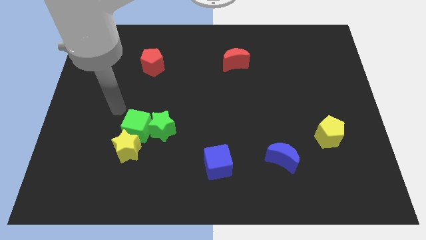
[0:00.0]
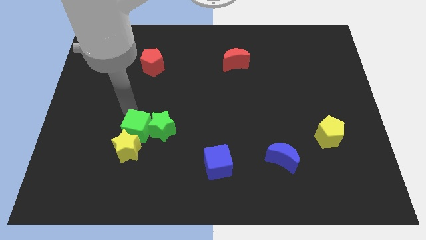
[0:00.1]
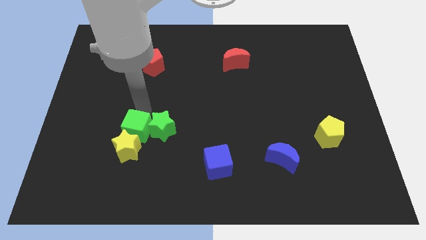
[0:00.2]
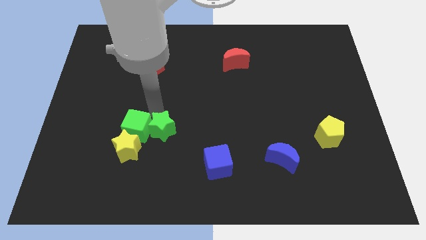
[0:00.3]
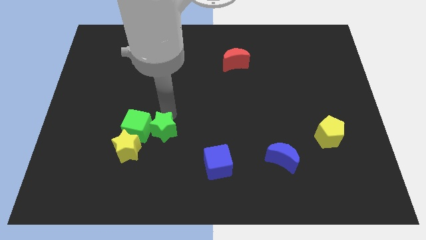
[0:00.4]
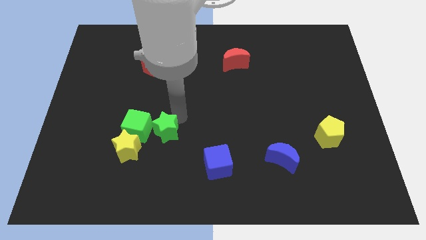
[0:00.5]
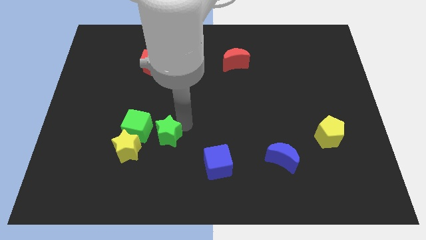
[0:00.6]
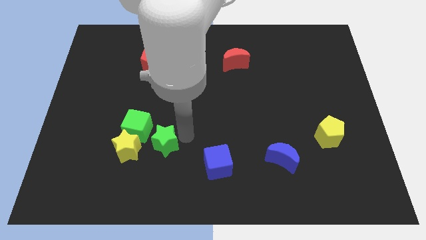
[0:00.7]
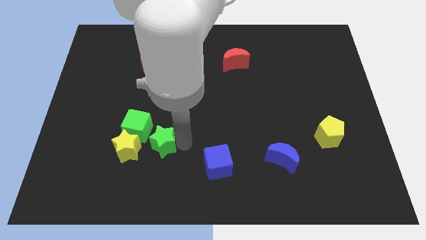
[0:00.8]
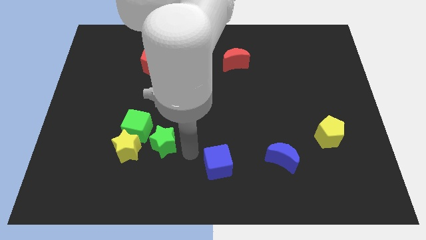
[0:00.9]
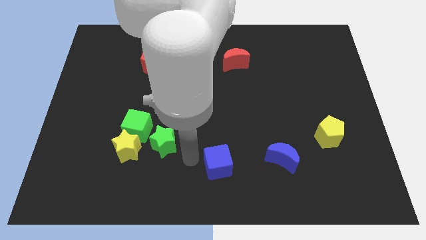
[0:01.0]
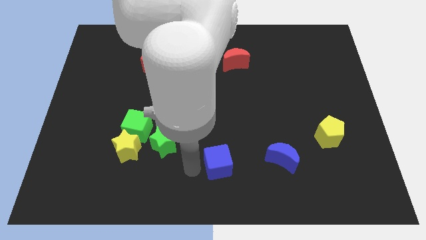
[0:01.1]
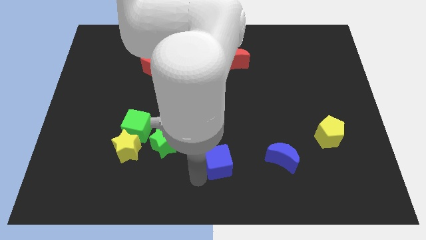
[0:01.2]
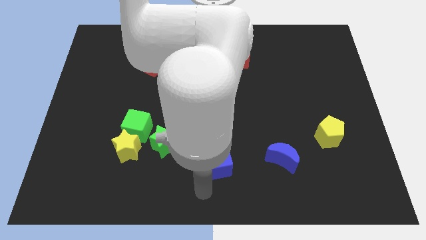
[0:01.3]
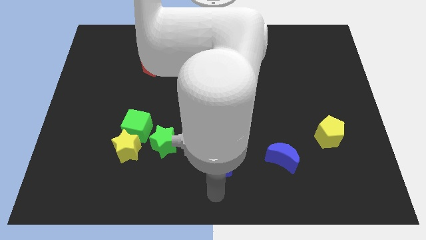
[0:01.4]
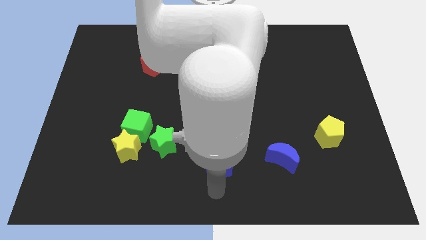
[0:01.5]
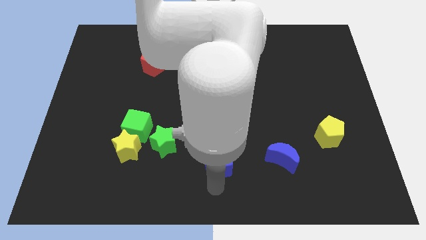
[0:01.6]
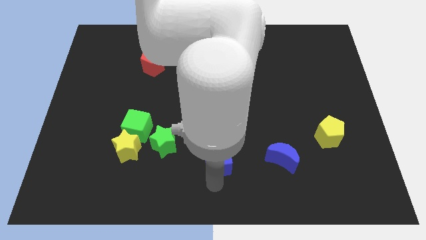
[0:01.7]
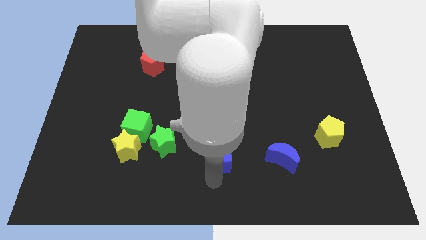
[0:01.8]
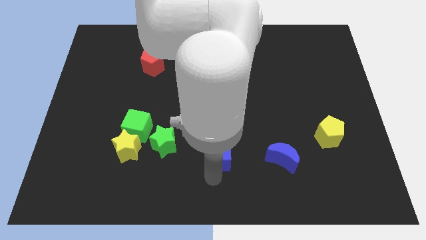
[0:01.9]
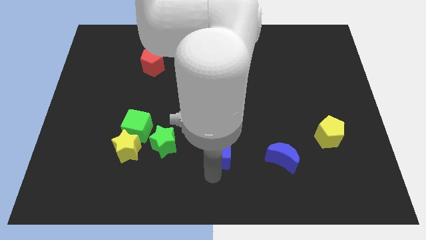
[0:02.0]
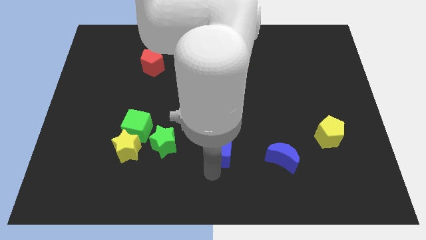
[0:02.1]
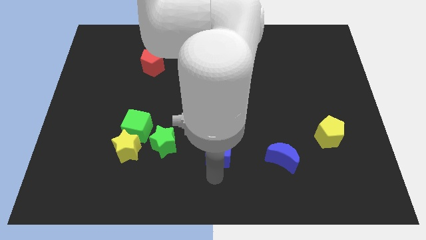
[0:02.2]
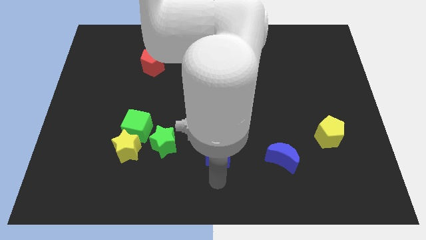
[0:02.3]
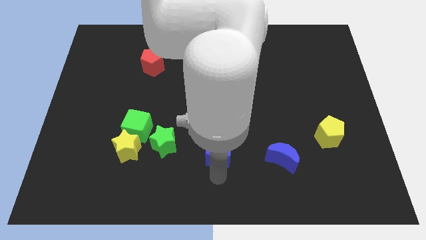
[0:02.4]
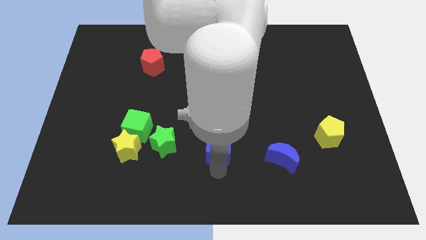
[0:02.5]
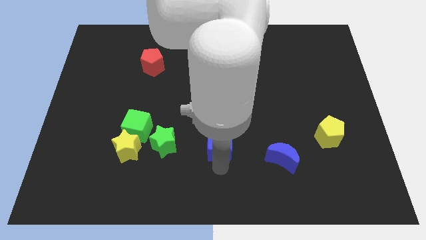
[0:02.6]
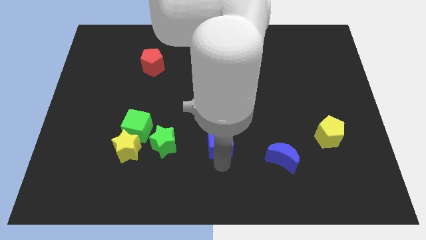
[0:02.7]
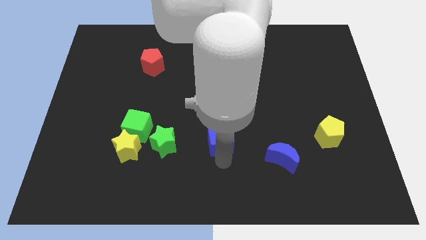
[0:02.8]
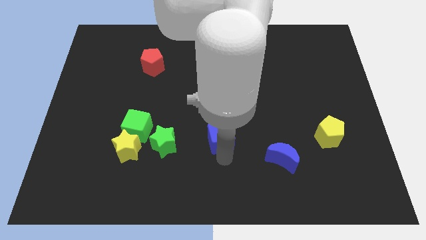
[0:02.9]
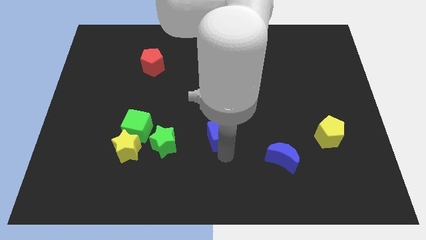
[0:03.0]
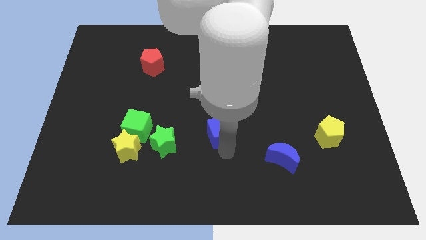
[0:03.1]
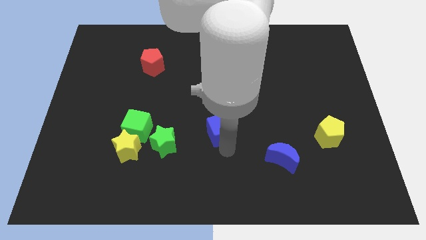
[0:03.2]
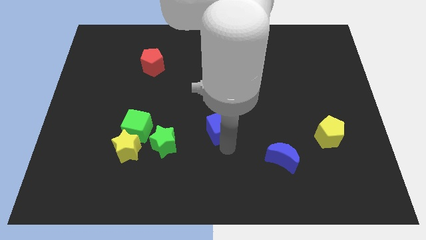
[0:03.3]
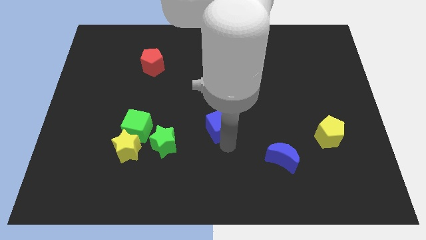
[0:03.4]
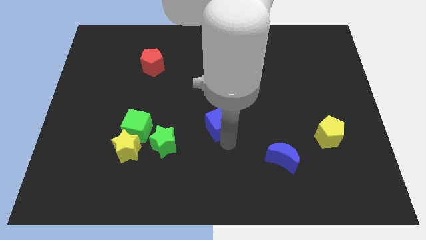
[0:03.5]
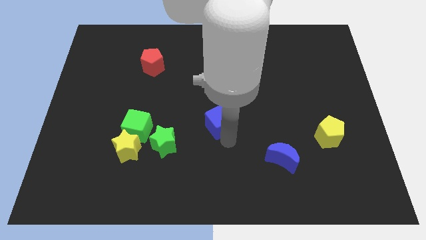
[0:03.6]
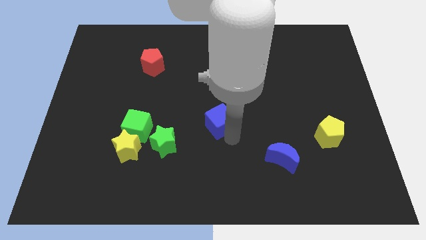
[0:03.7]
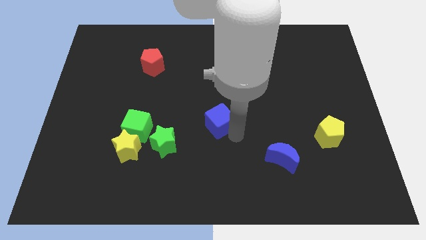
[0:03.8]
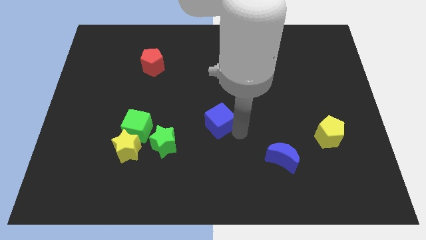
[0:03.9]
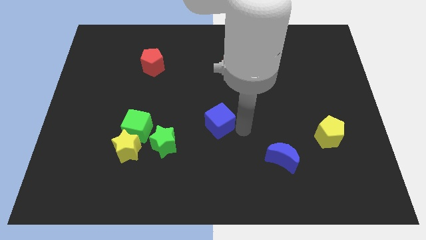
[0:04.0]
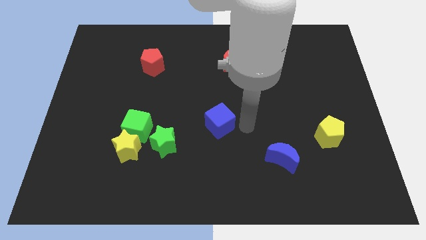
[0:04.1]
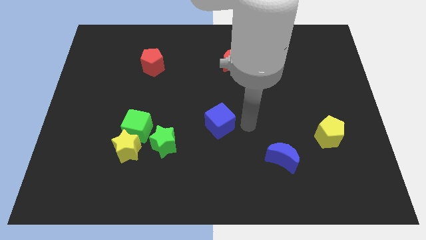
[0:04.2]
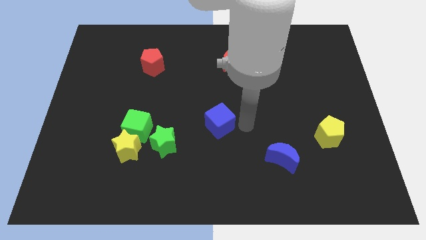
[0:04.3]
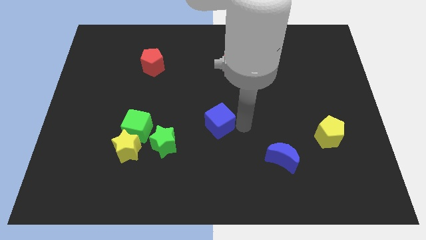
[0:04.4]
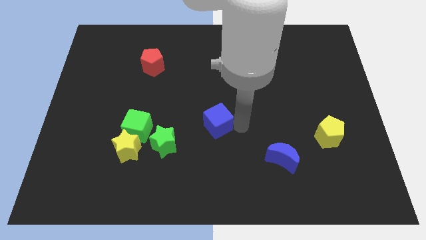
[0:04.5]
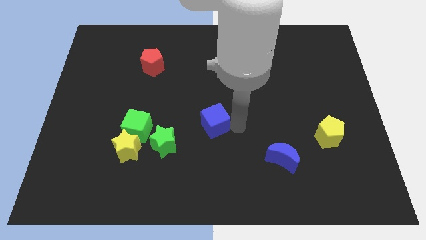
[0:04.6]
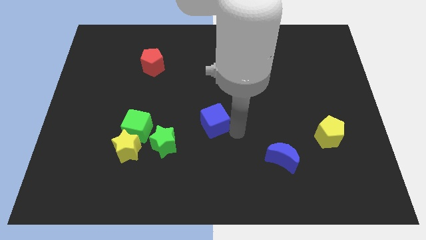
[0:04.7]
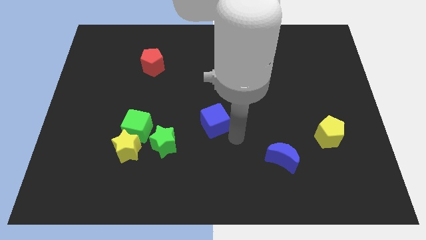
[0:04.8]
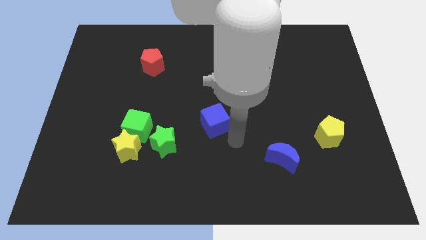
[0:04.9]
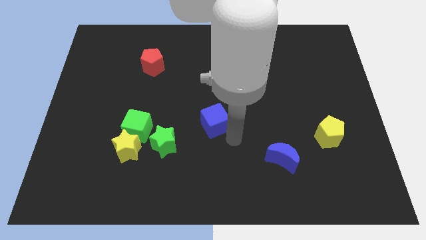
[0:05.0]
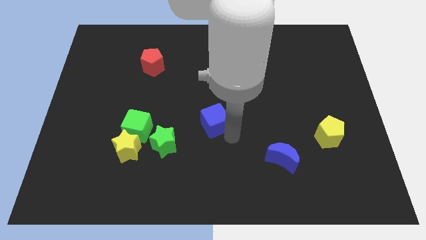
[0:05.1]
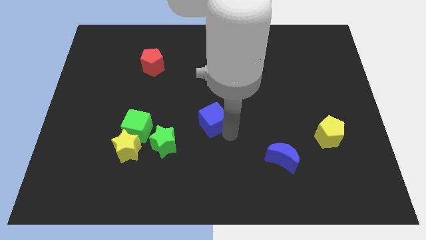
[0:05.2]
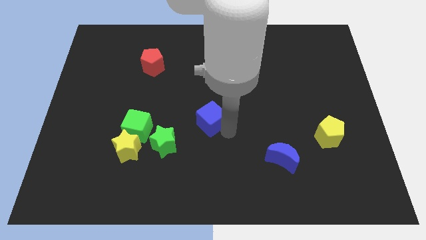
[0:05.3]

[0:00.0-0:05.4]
slightly move the blue cube up and then to the left

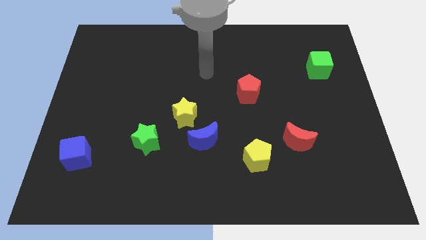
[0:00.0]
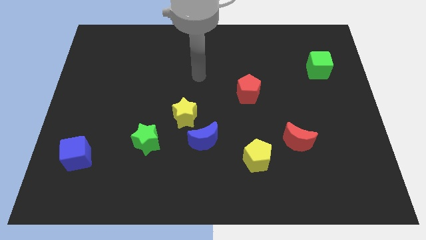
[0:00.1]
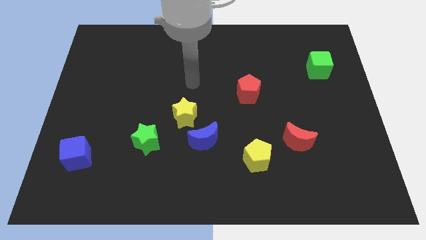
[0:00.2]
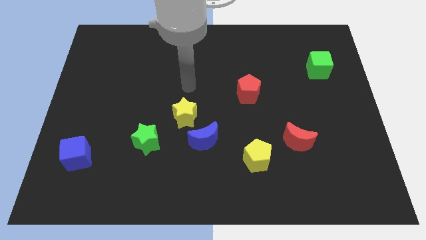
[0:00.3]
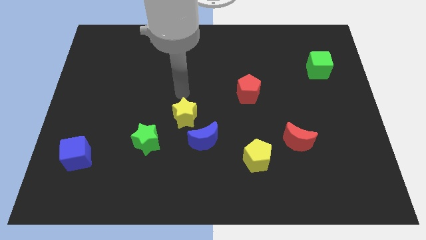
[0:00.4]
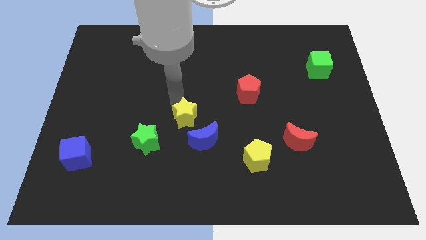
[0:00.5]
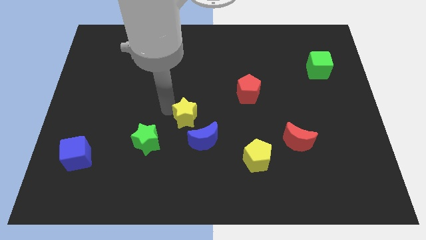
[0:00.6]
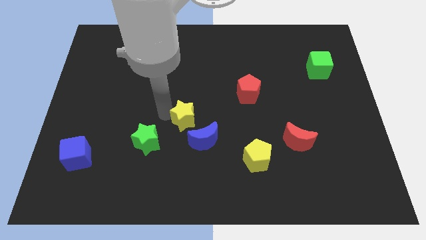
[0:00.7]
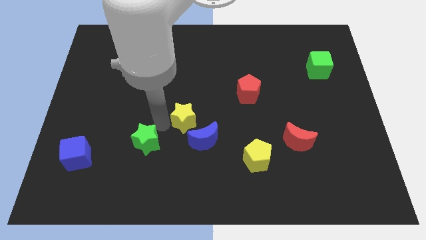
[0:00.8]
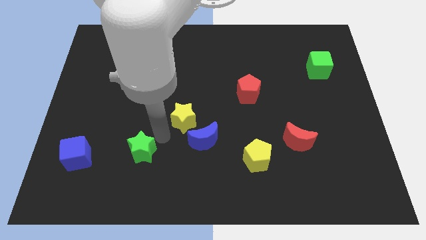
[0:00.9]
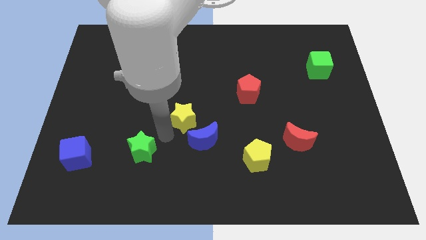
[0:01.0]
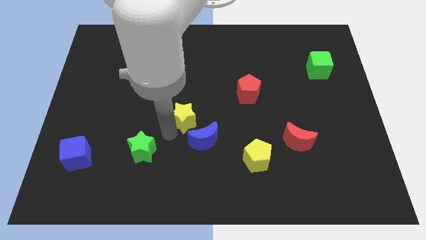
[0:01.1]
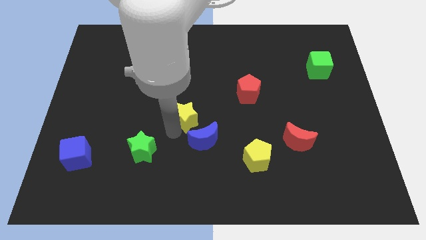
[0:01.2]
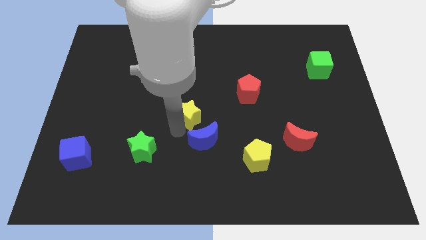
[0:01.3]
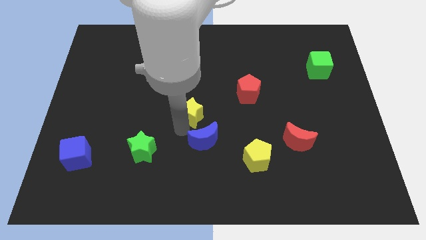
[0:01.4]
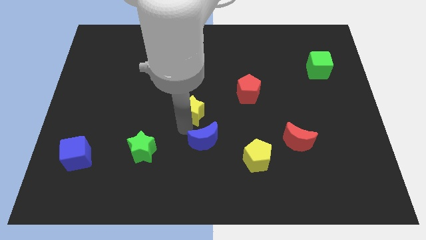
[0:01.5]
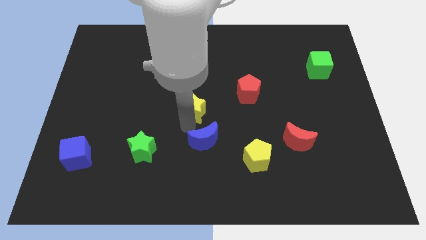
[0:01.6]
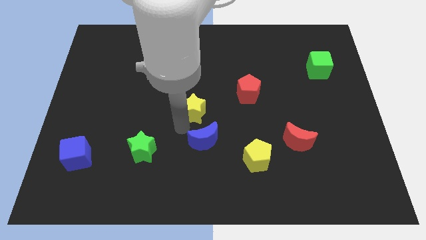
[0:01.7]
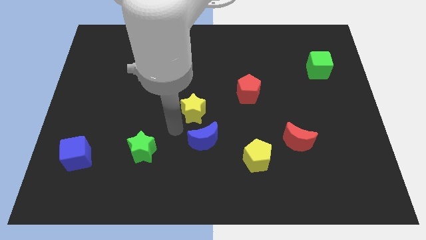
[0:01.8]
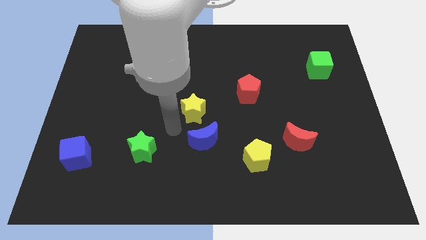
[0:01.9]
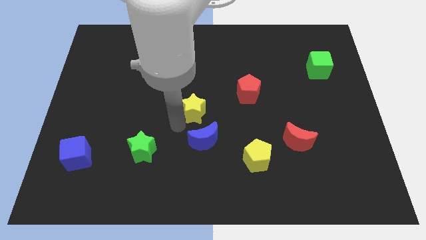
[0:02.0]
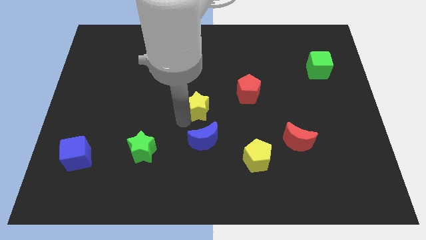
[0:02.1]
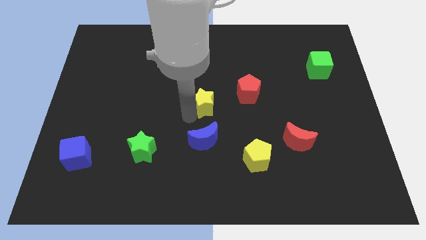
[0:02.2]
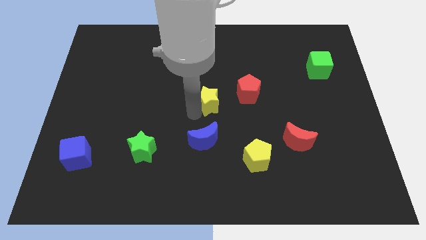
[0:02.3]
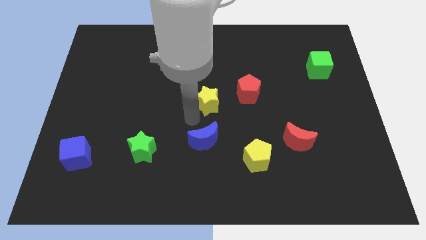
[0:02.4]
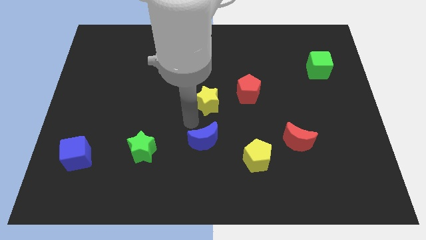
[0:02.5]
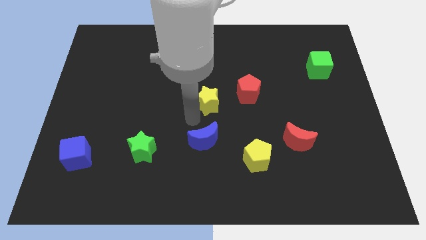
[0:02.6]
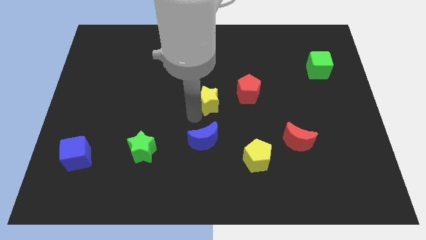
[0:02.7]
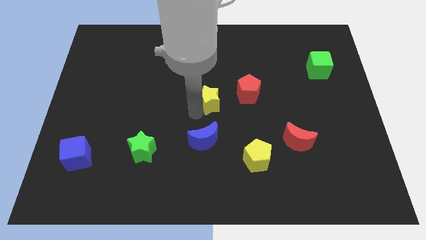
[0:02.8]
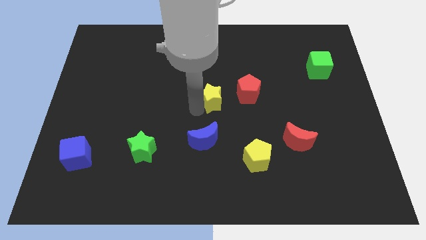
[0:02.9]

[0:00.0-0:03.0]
move the yellow star diagonally up and right slightly
